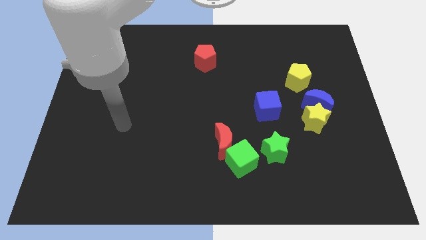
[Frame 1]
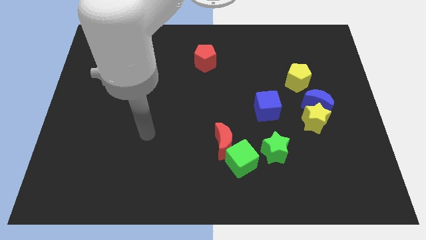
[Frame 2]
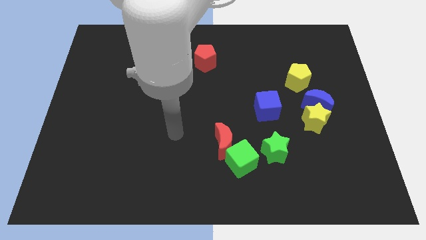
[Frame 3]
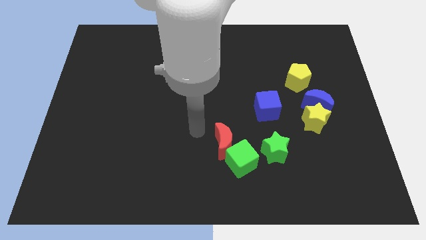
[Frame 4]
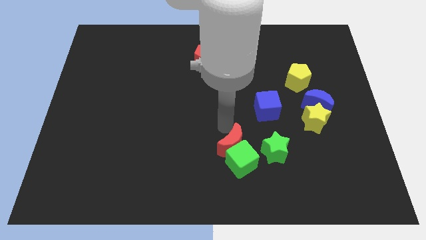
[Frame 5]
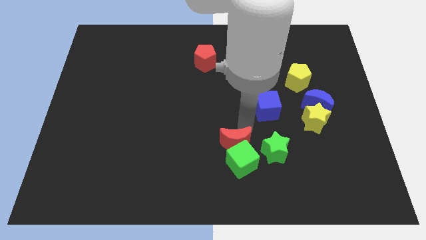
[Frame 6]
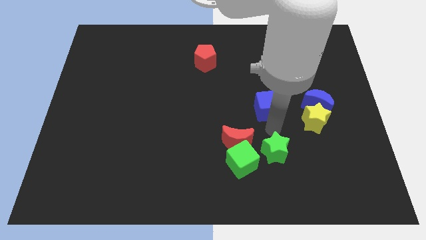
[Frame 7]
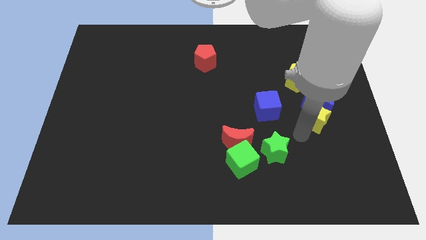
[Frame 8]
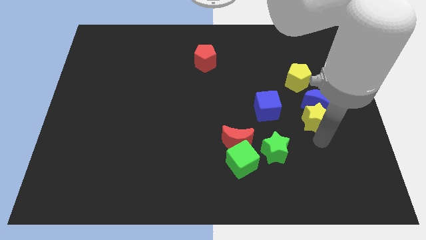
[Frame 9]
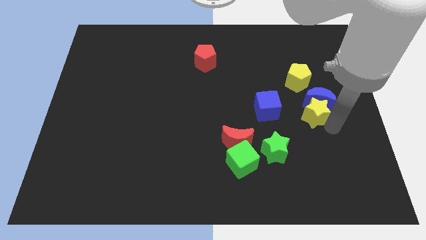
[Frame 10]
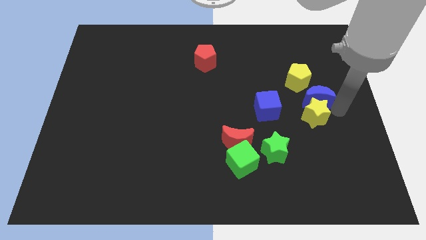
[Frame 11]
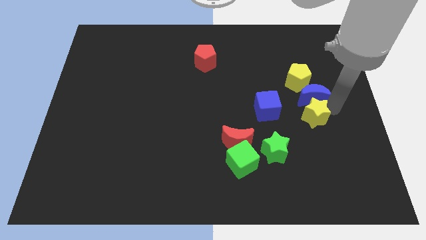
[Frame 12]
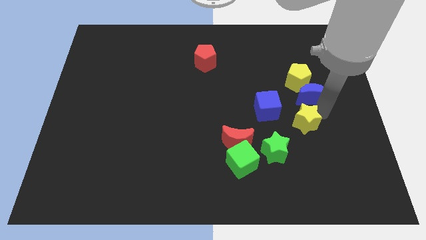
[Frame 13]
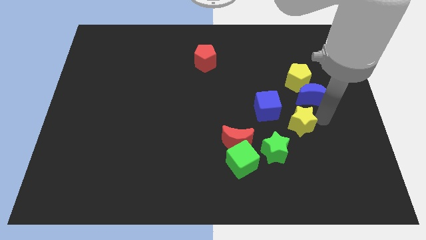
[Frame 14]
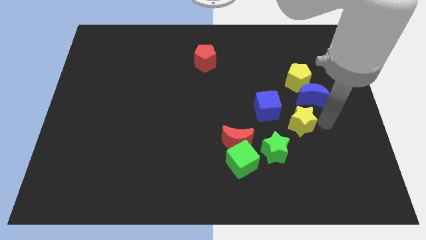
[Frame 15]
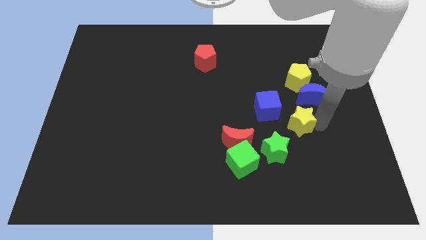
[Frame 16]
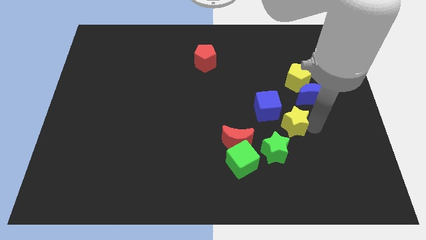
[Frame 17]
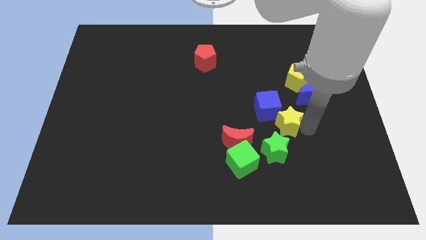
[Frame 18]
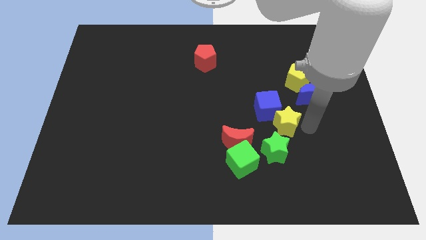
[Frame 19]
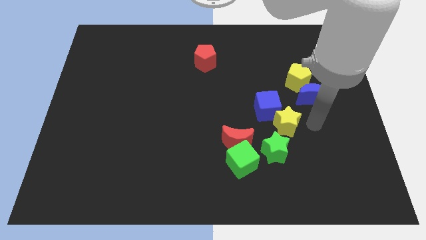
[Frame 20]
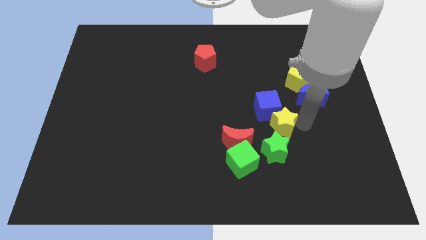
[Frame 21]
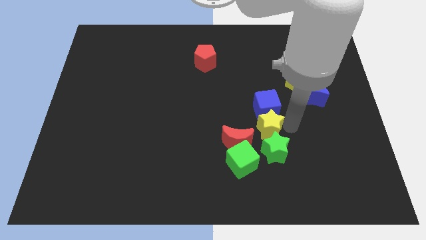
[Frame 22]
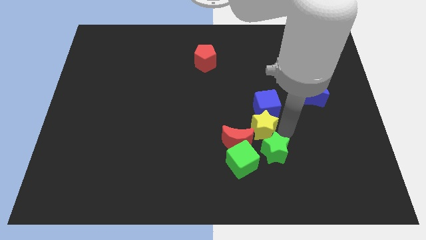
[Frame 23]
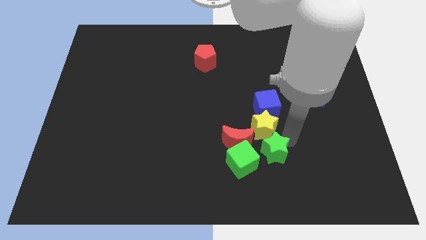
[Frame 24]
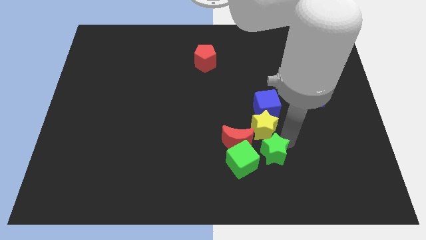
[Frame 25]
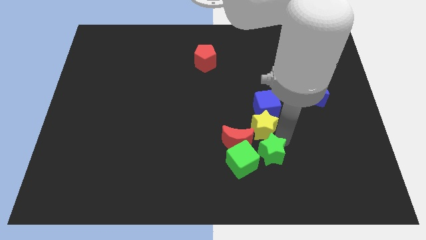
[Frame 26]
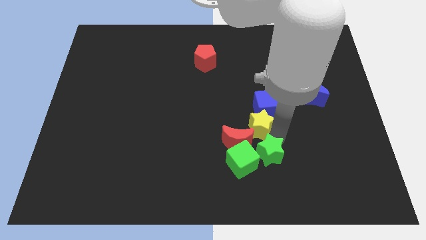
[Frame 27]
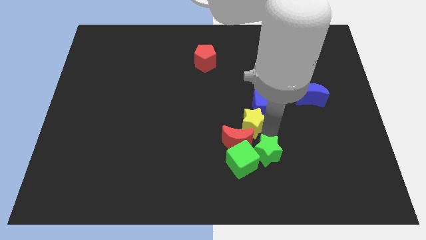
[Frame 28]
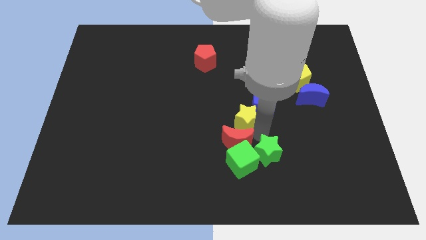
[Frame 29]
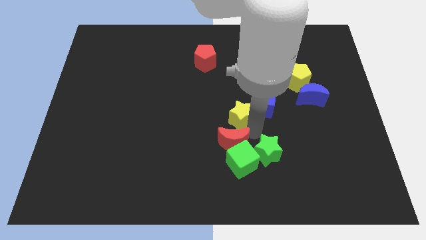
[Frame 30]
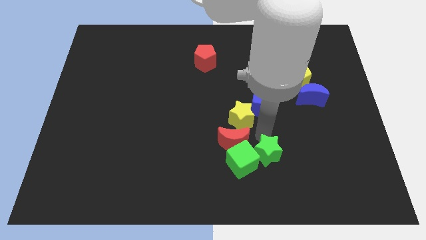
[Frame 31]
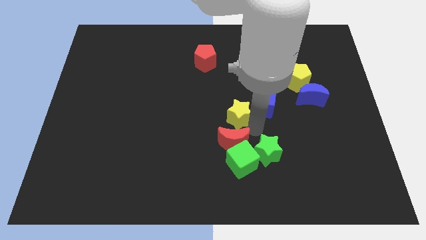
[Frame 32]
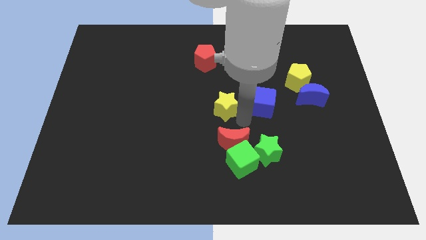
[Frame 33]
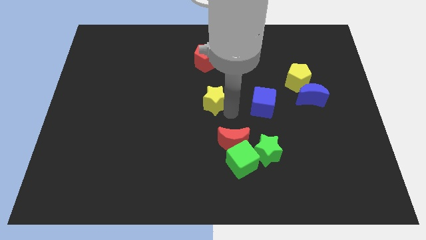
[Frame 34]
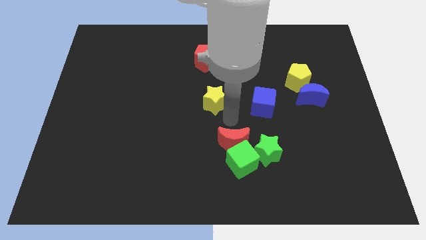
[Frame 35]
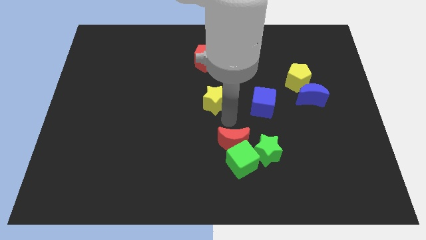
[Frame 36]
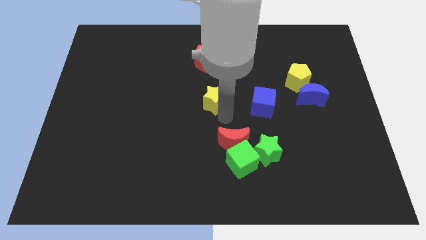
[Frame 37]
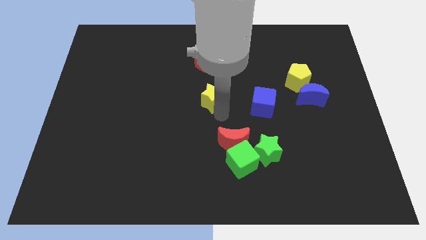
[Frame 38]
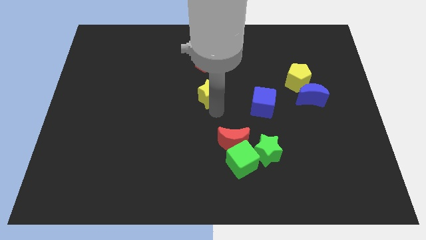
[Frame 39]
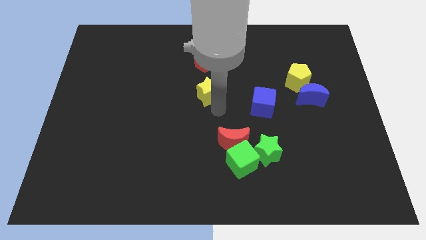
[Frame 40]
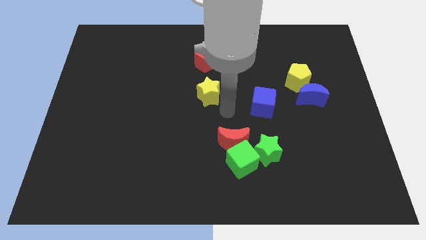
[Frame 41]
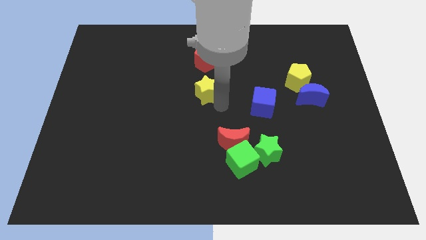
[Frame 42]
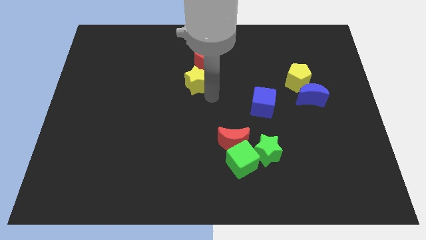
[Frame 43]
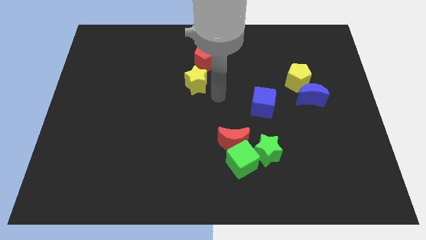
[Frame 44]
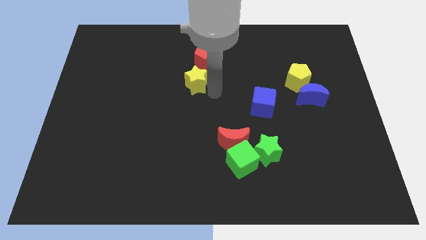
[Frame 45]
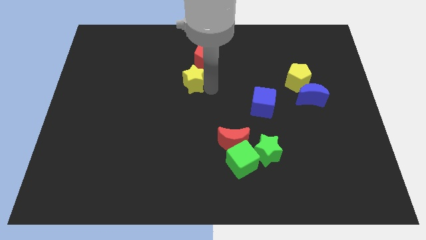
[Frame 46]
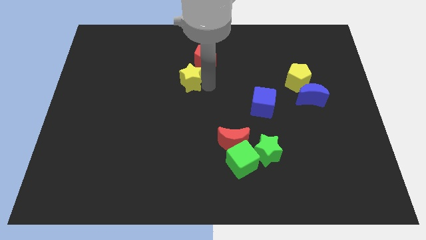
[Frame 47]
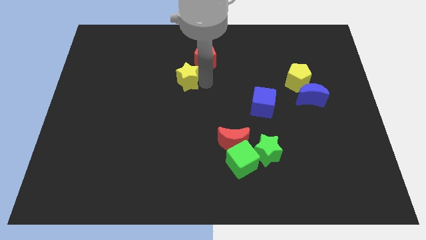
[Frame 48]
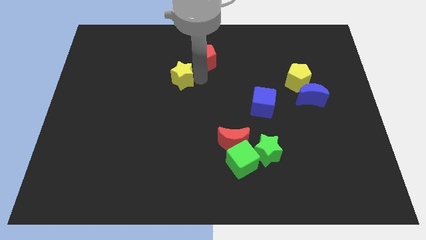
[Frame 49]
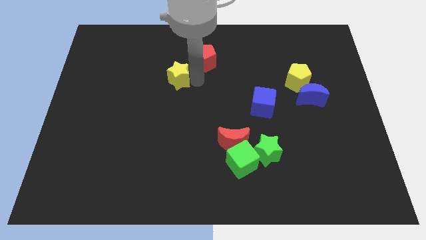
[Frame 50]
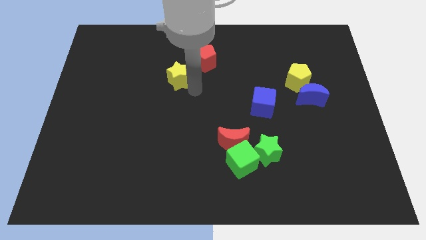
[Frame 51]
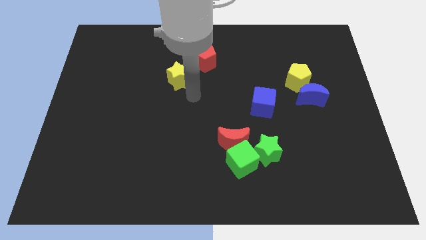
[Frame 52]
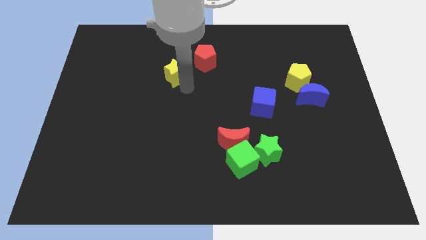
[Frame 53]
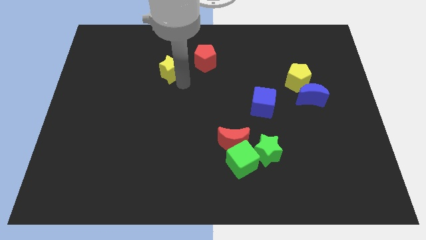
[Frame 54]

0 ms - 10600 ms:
slide the yellow star to the left side of the red pentagon

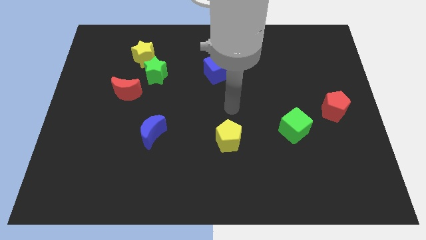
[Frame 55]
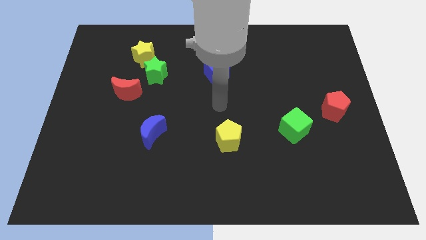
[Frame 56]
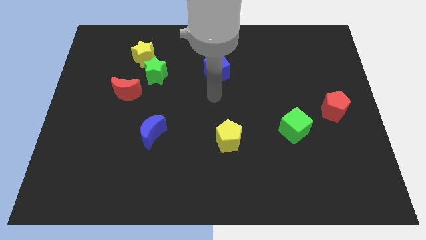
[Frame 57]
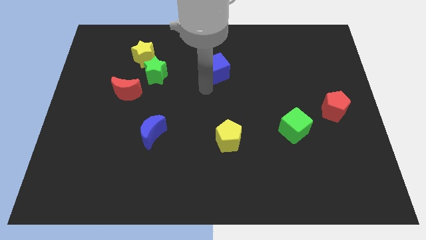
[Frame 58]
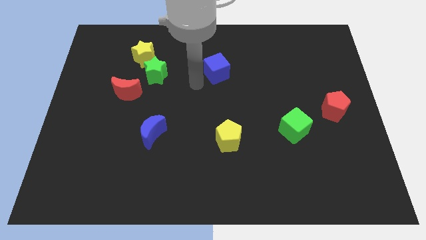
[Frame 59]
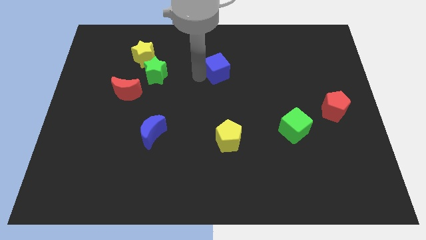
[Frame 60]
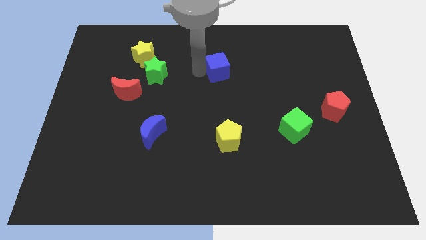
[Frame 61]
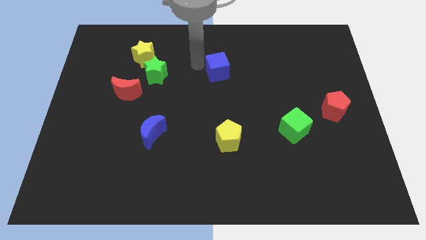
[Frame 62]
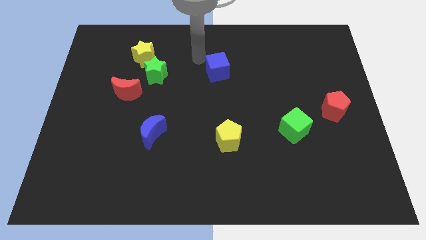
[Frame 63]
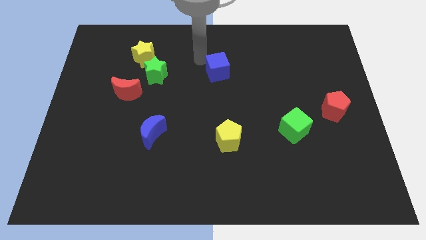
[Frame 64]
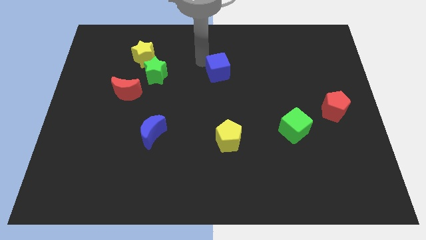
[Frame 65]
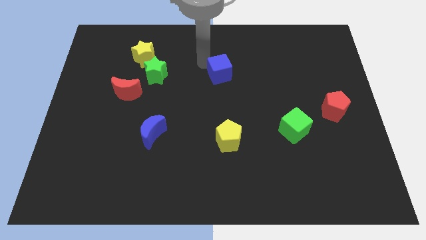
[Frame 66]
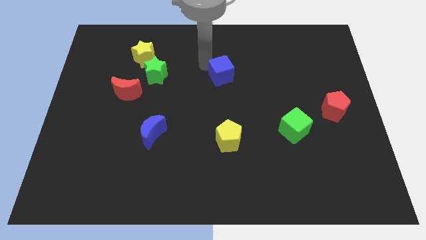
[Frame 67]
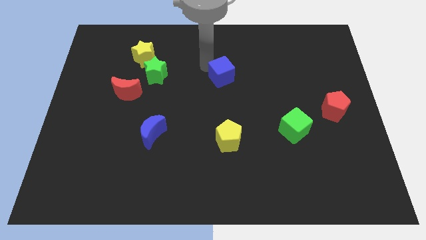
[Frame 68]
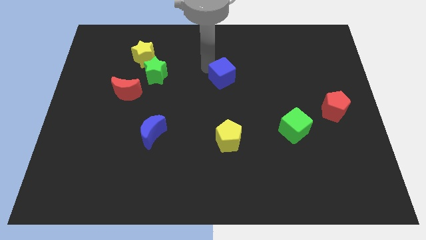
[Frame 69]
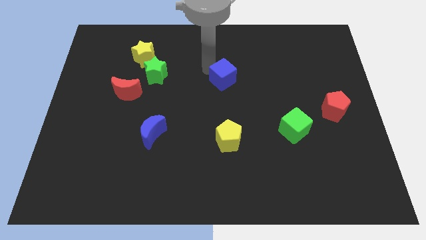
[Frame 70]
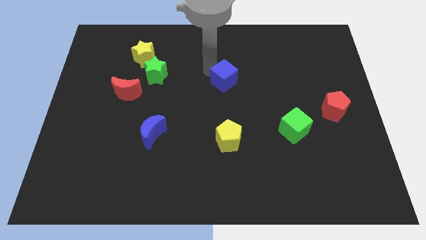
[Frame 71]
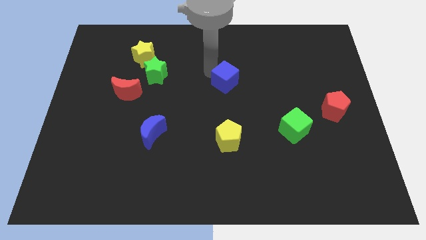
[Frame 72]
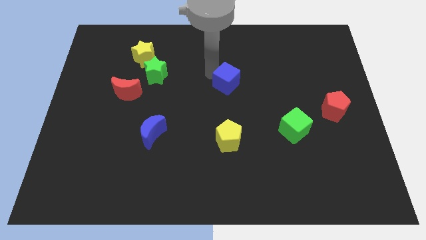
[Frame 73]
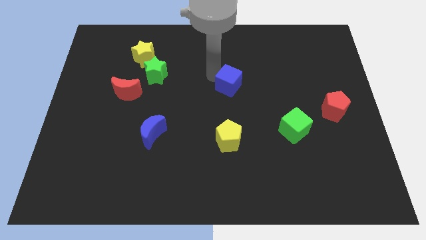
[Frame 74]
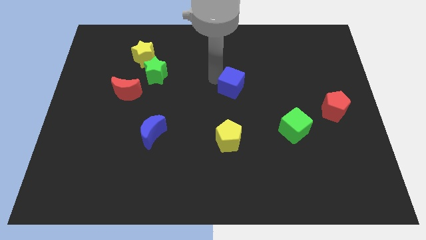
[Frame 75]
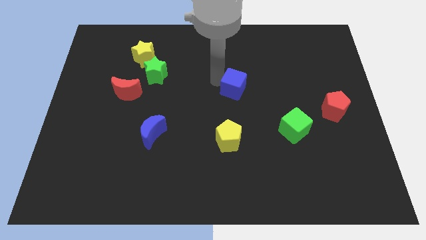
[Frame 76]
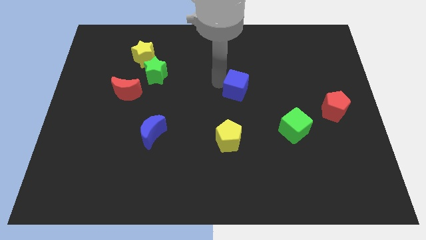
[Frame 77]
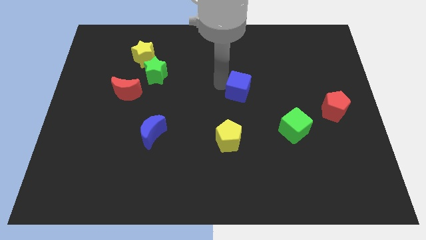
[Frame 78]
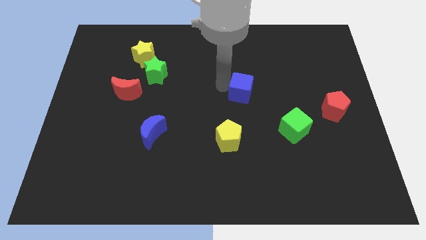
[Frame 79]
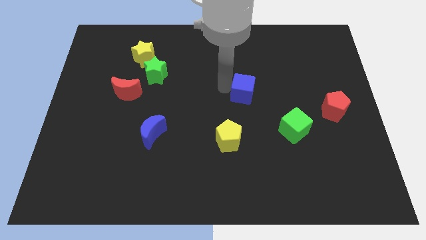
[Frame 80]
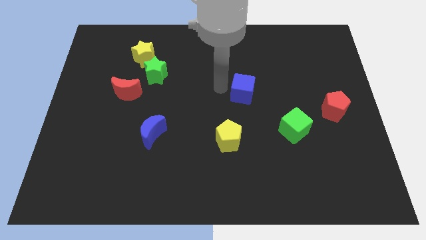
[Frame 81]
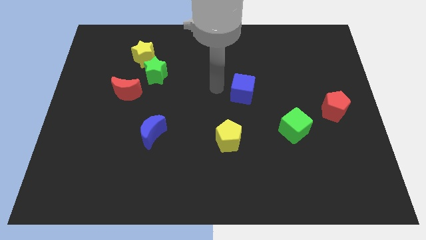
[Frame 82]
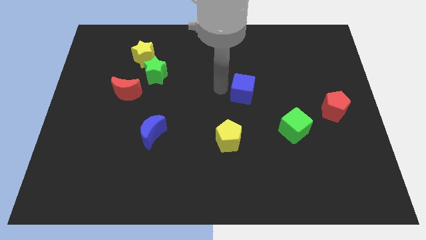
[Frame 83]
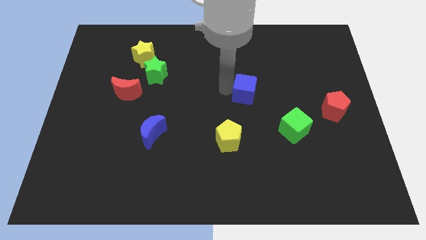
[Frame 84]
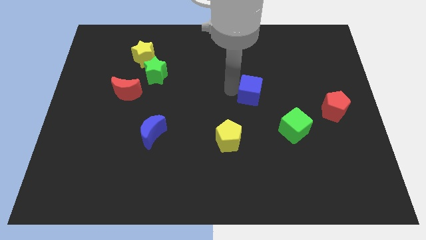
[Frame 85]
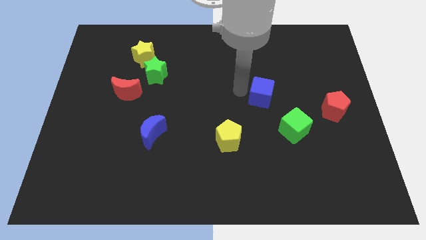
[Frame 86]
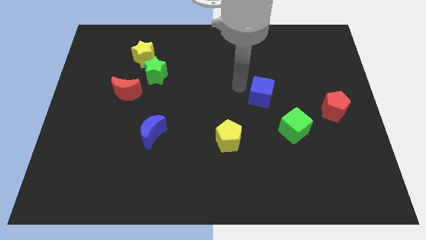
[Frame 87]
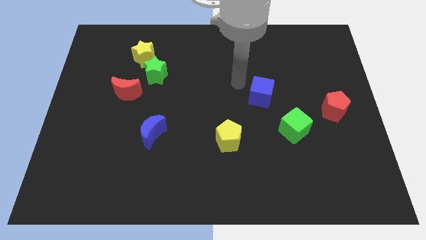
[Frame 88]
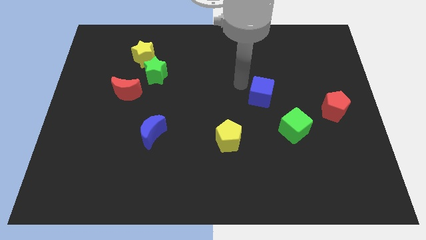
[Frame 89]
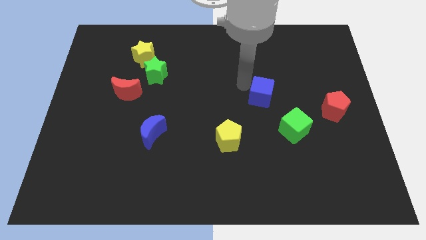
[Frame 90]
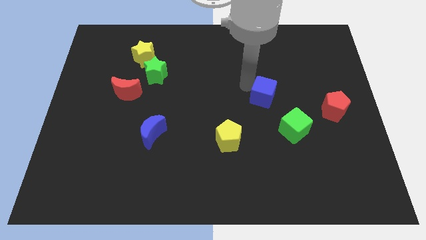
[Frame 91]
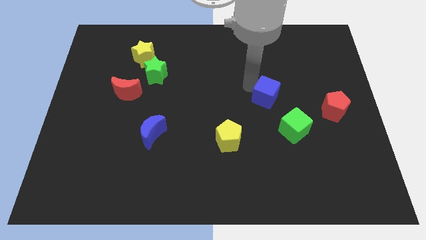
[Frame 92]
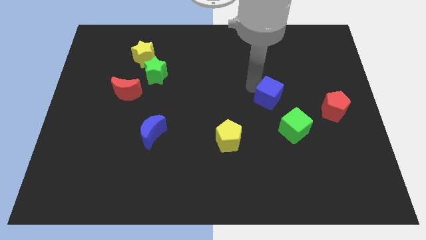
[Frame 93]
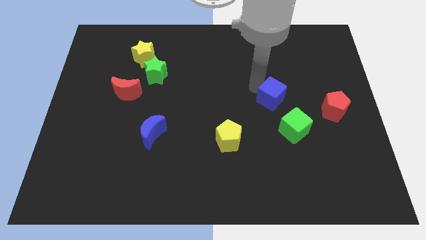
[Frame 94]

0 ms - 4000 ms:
put the blue cube left of the red pentagon
